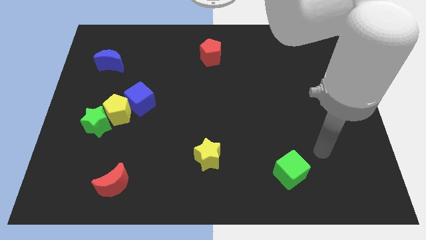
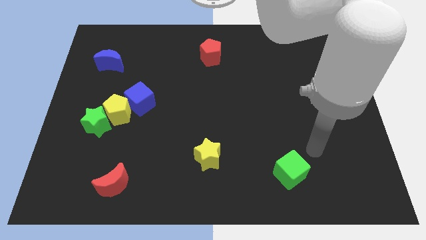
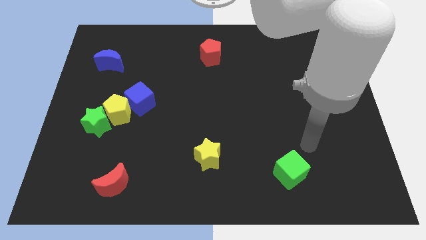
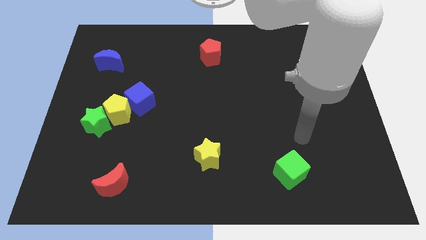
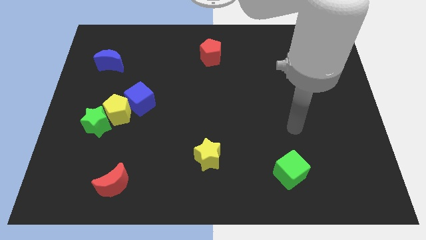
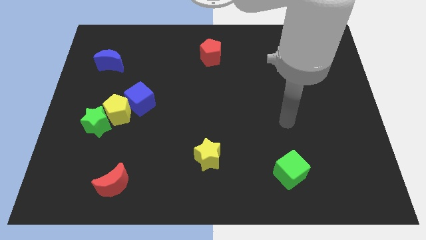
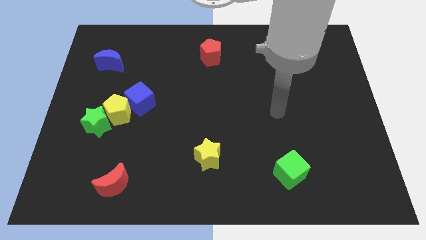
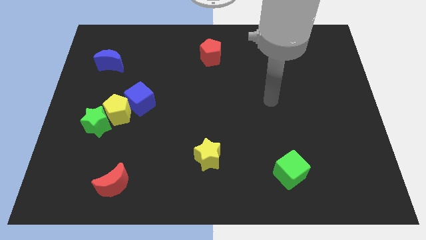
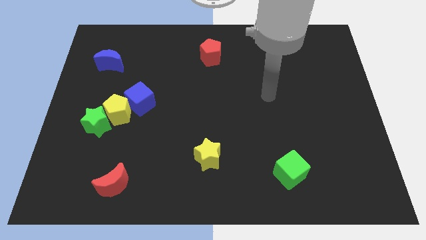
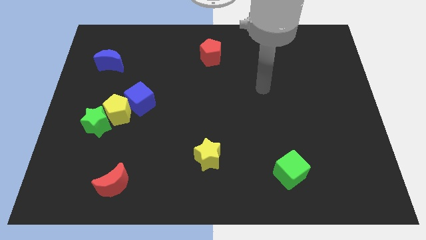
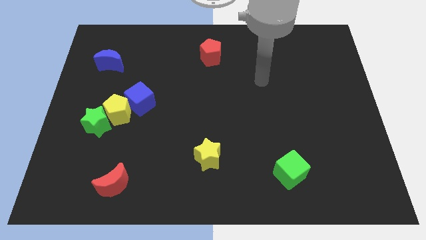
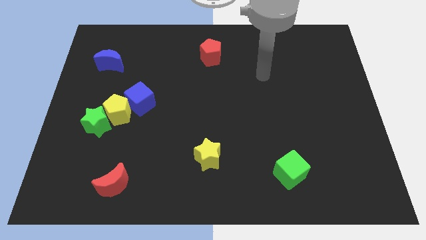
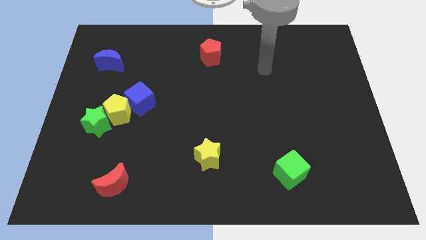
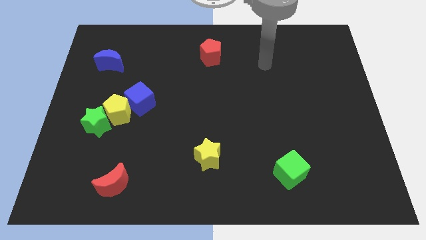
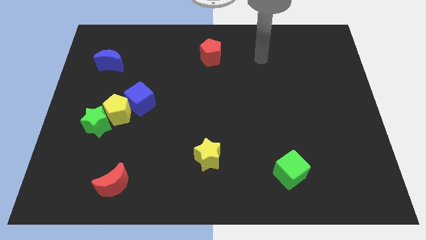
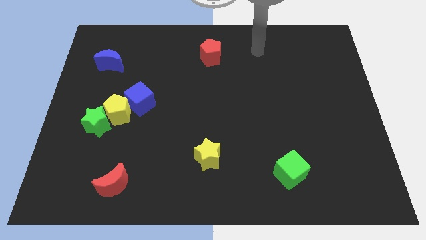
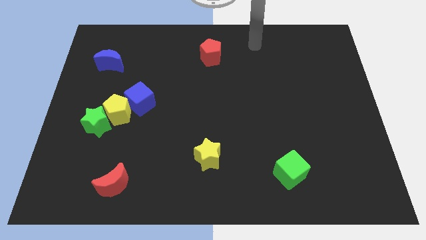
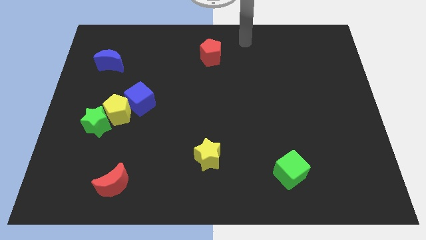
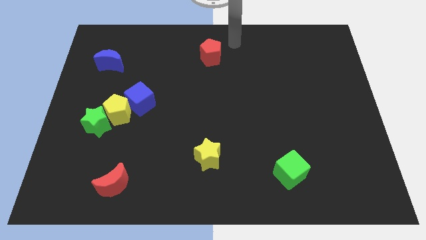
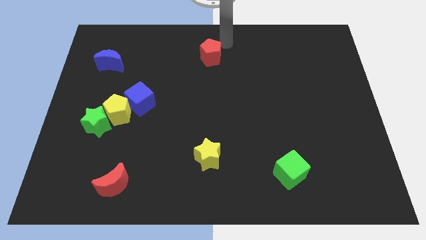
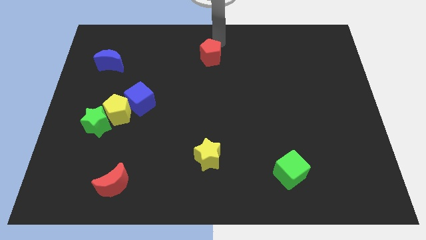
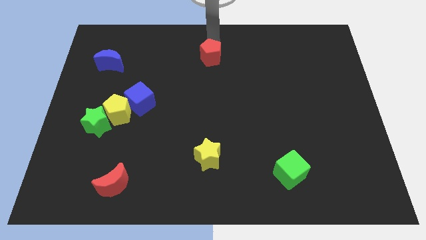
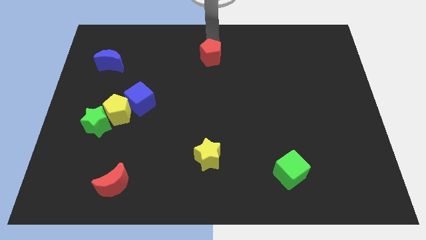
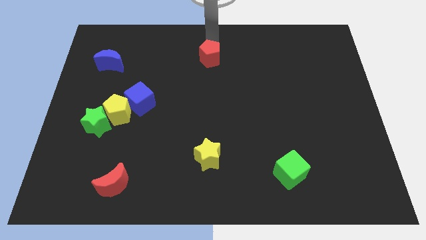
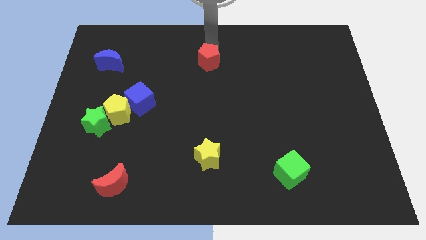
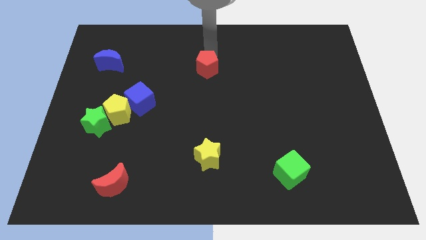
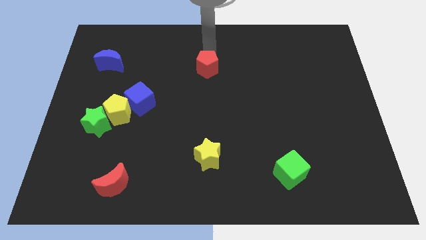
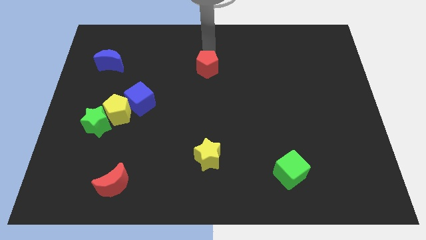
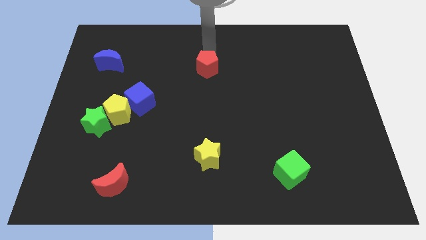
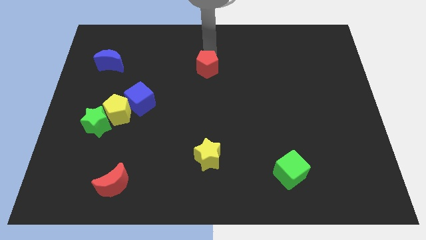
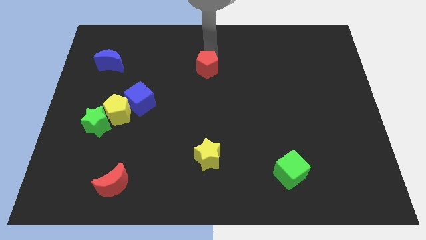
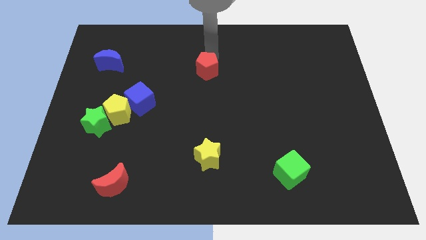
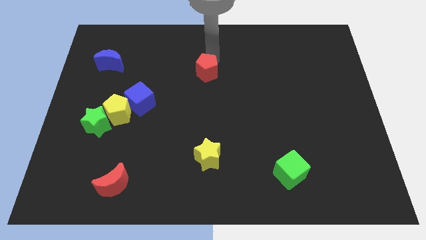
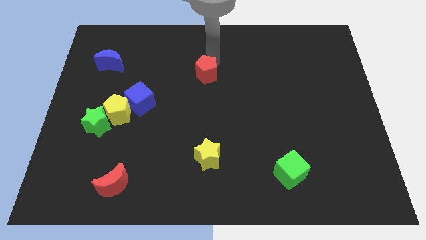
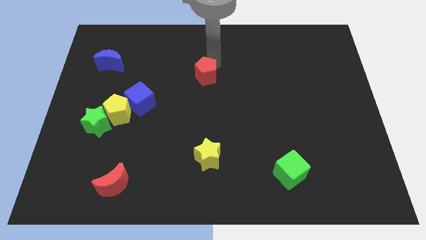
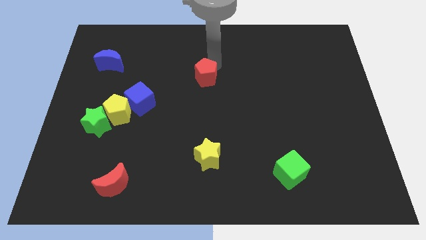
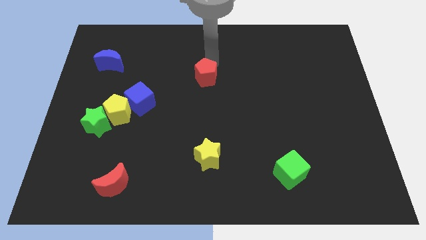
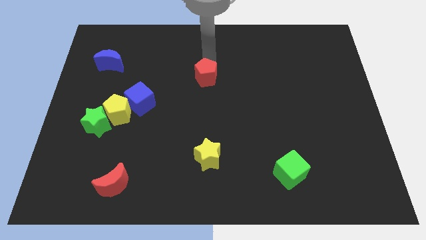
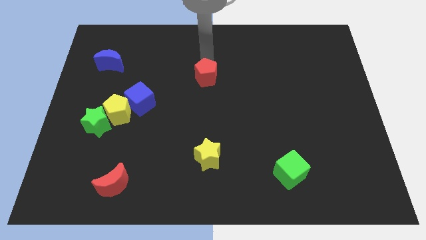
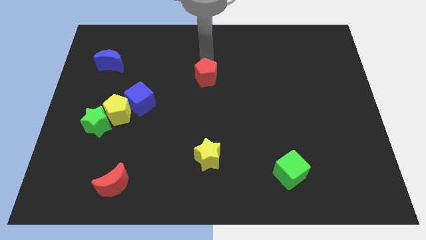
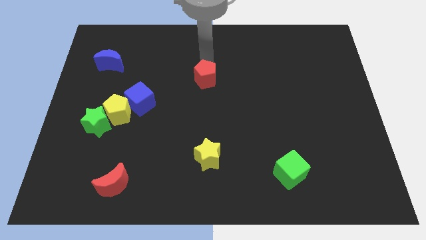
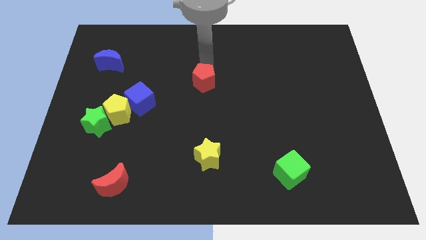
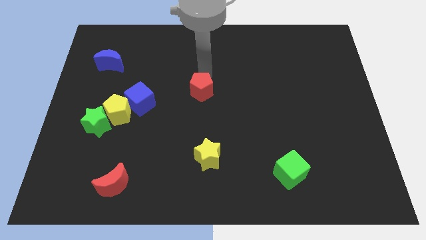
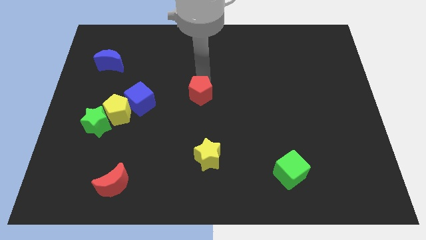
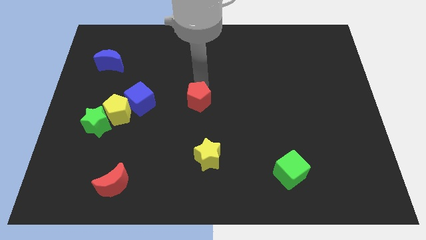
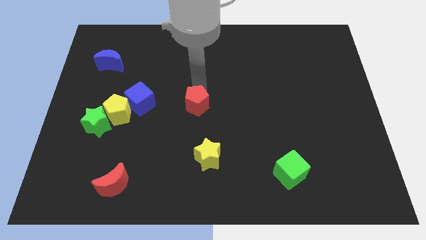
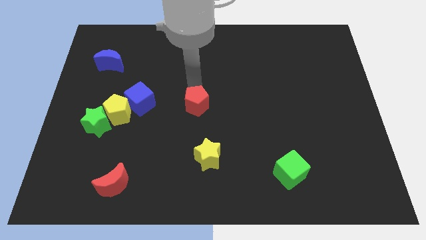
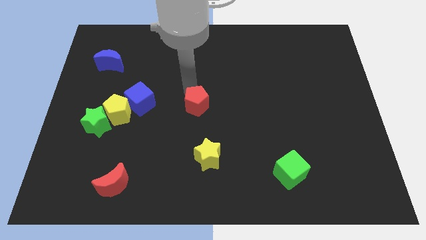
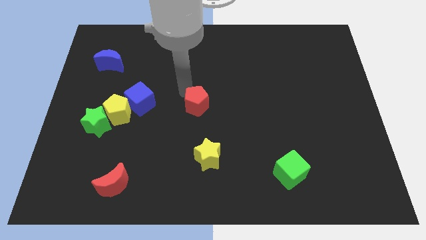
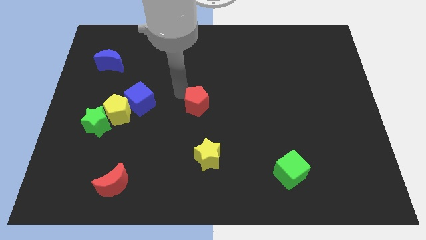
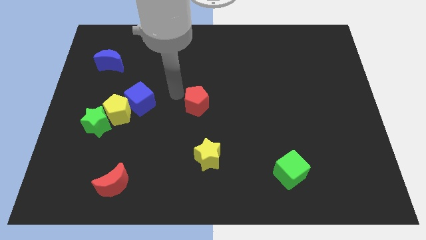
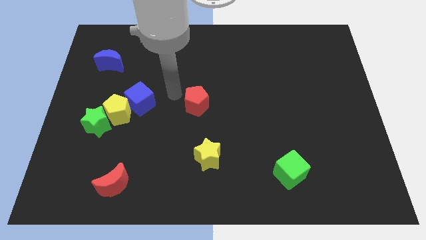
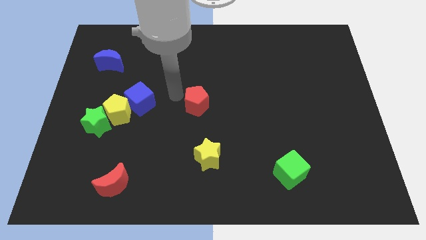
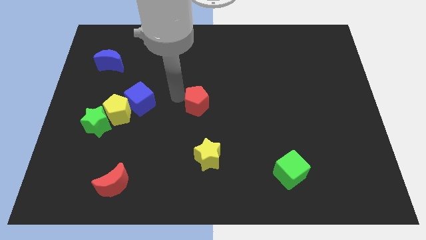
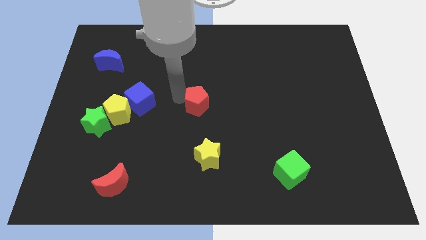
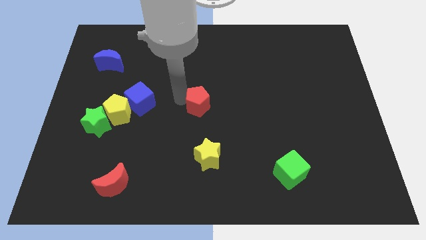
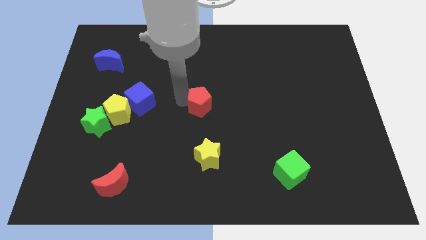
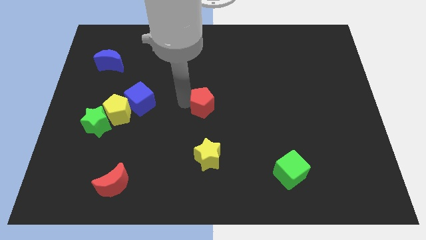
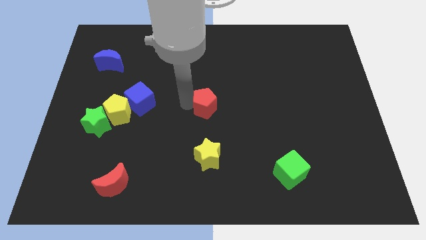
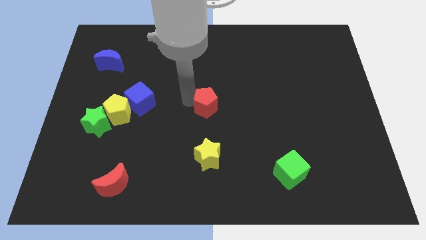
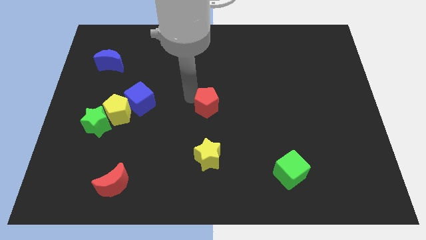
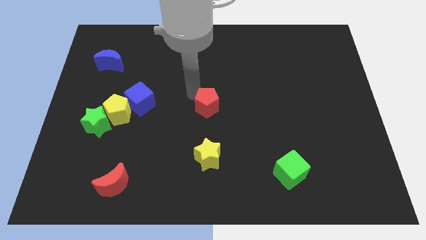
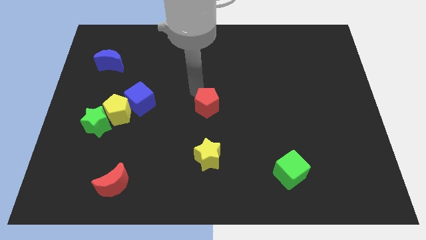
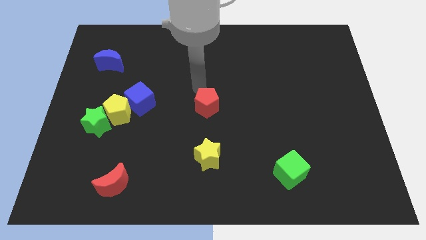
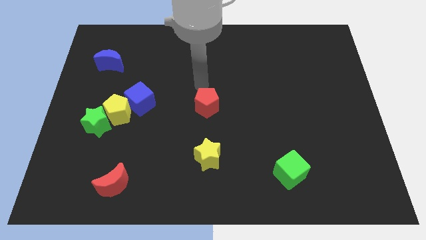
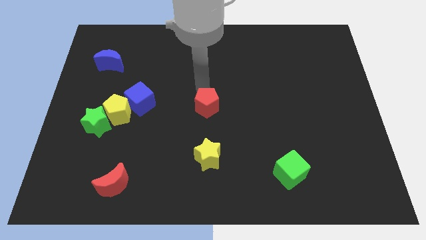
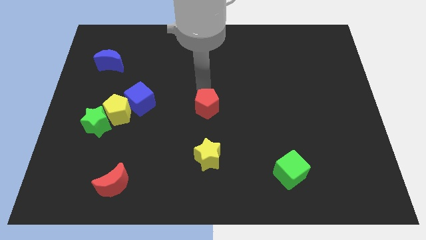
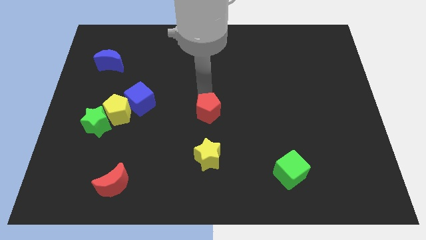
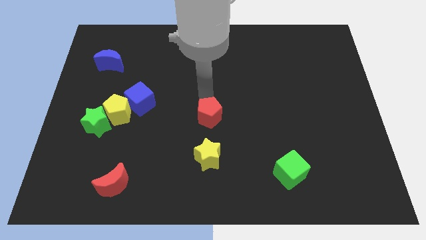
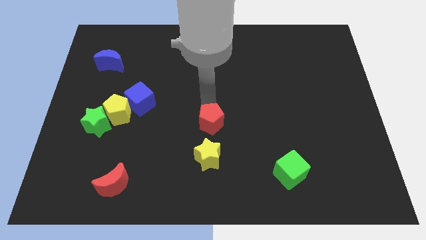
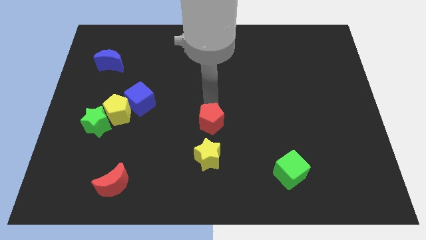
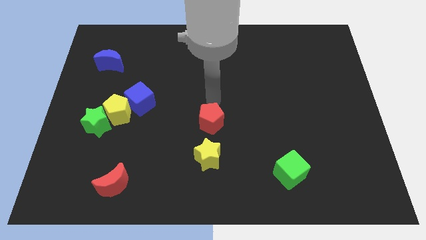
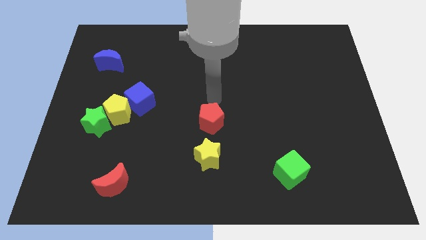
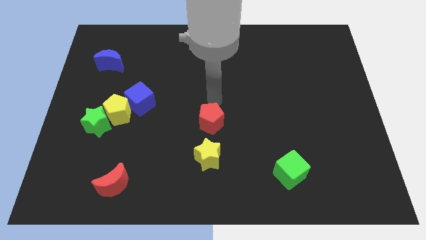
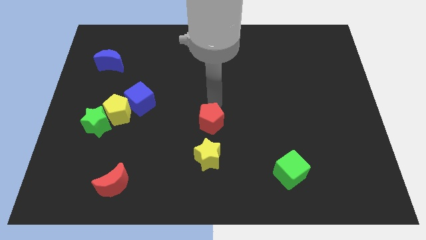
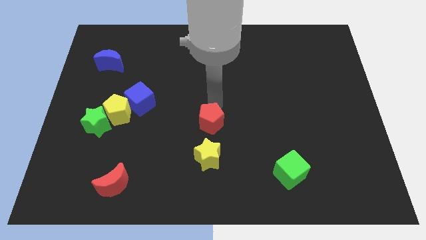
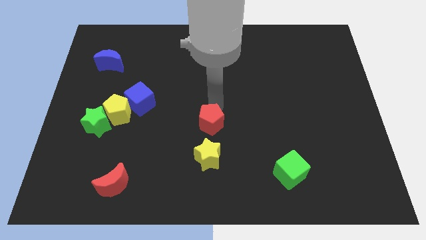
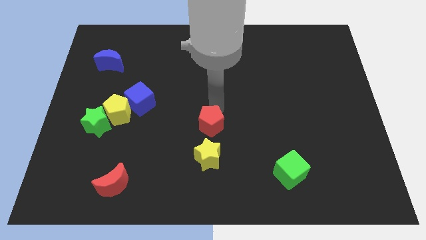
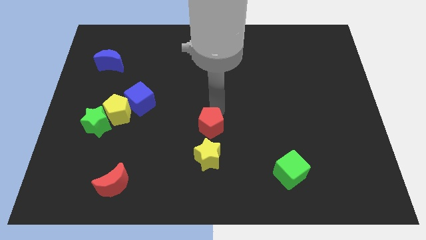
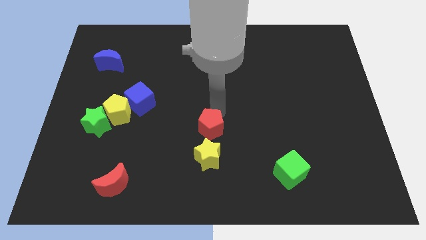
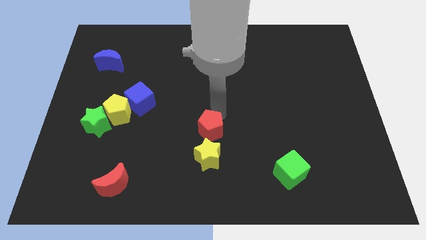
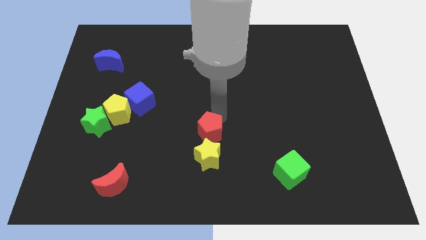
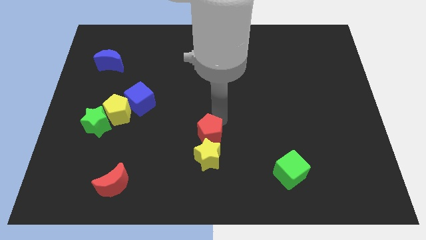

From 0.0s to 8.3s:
put the red pentagon next to the yellow star
